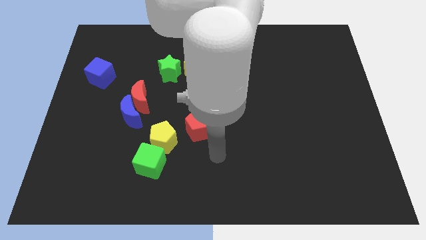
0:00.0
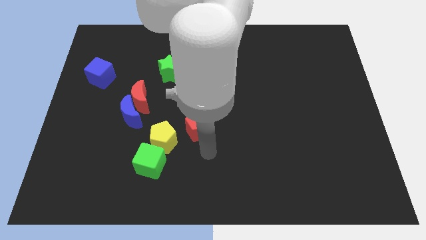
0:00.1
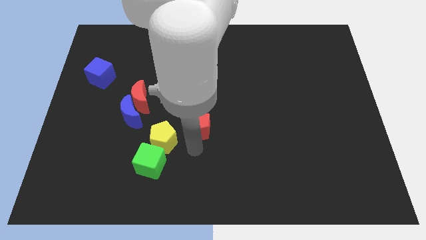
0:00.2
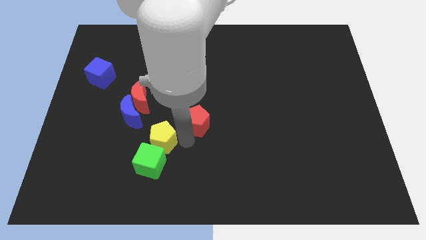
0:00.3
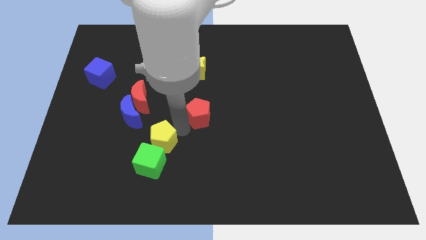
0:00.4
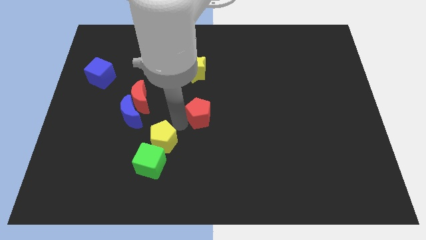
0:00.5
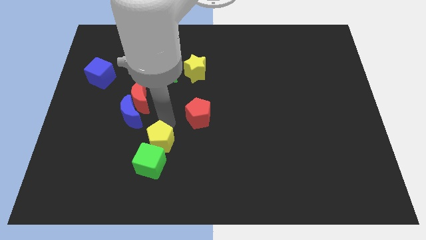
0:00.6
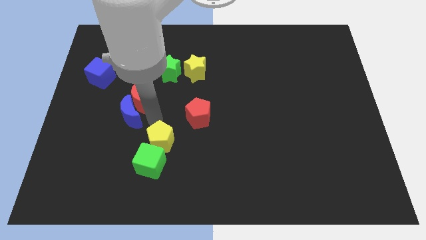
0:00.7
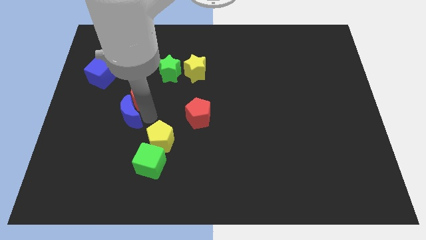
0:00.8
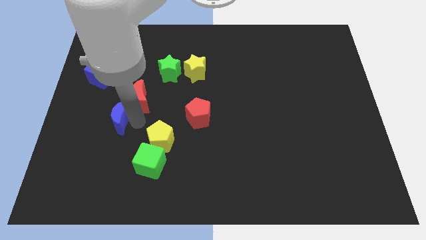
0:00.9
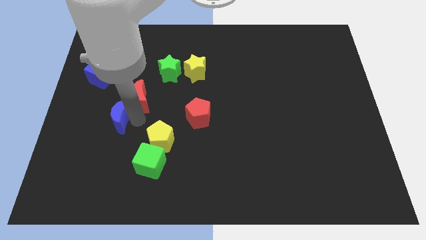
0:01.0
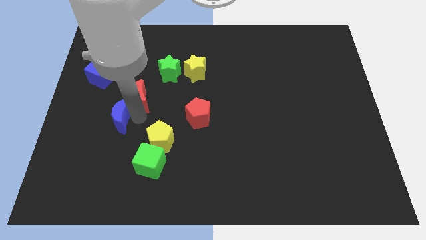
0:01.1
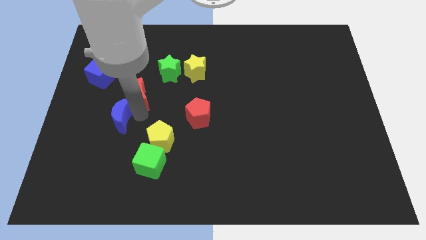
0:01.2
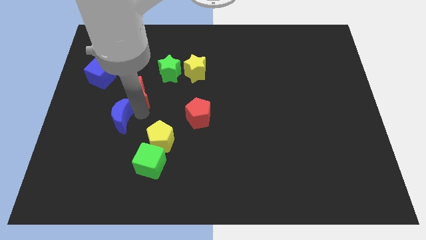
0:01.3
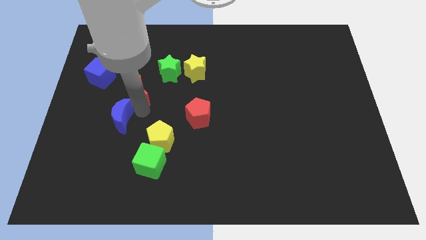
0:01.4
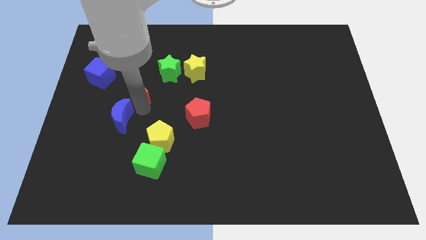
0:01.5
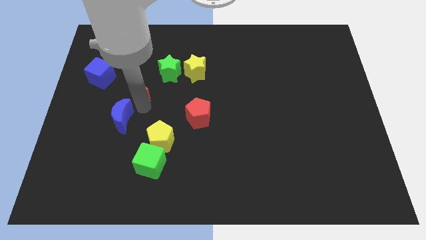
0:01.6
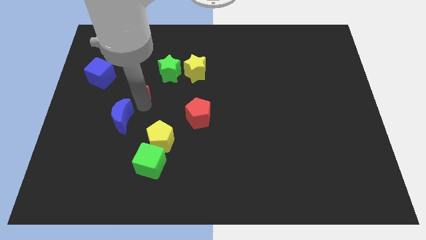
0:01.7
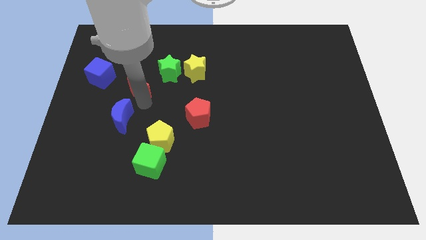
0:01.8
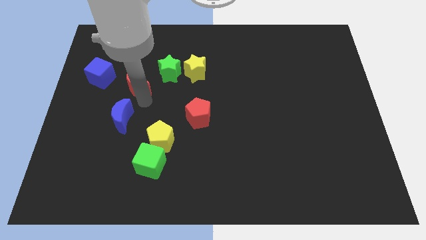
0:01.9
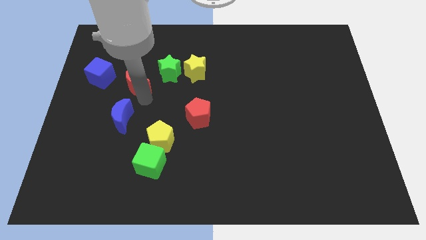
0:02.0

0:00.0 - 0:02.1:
move the red moon away from the blue moon

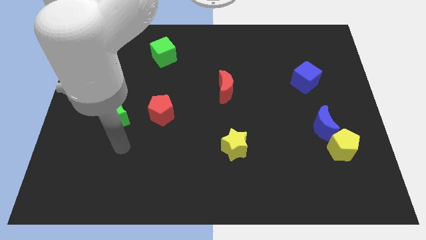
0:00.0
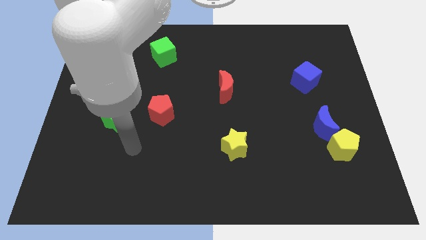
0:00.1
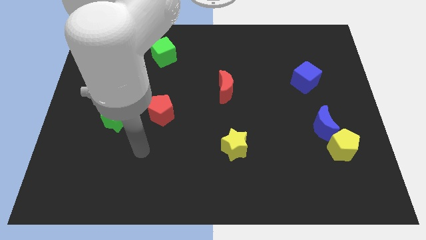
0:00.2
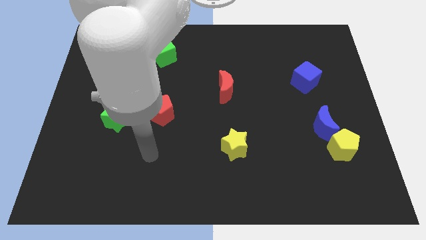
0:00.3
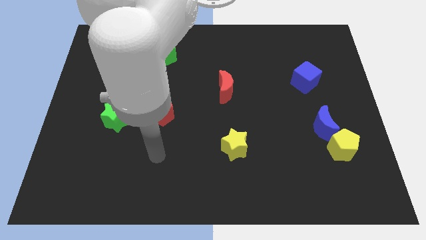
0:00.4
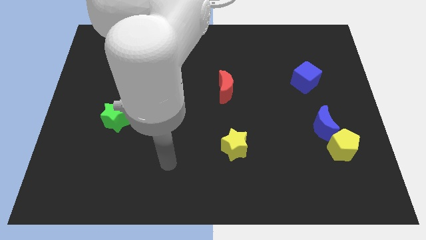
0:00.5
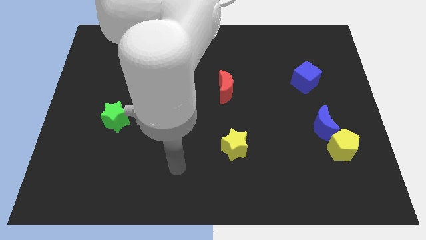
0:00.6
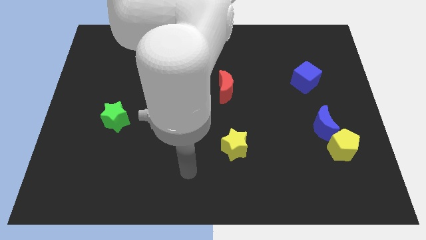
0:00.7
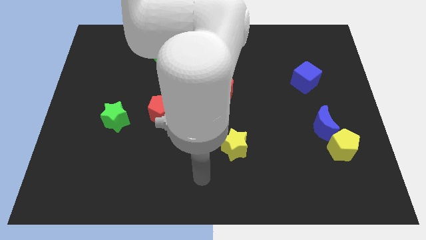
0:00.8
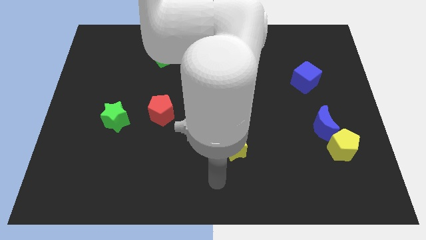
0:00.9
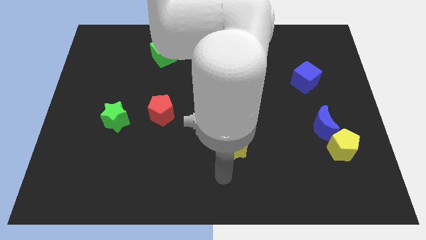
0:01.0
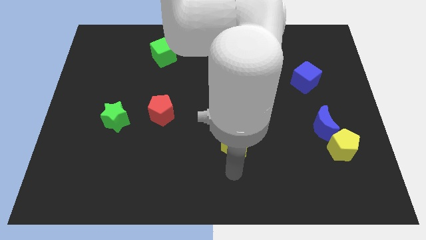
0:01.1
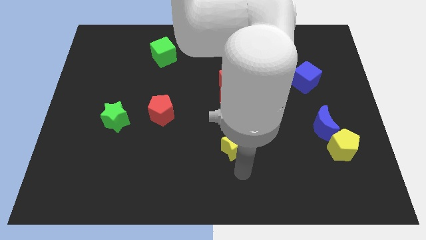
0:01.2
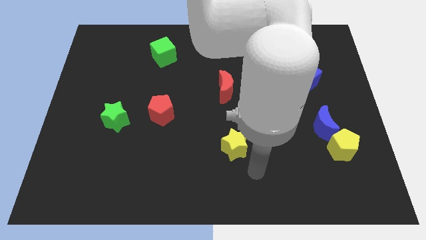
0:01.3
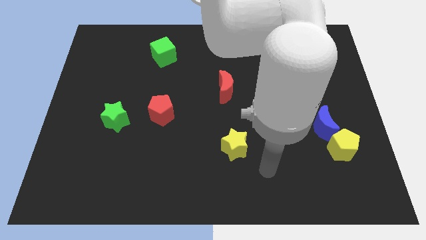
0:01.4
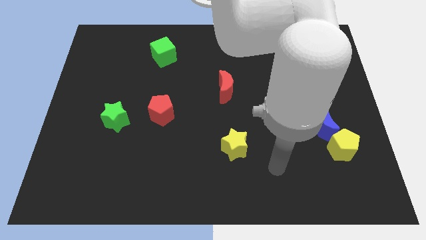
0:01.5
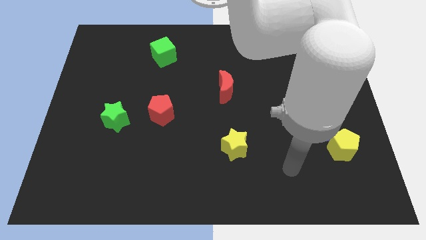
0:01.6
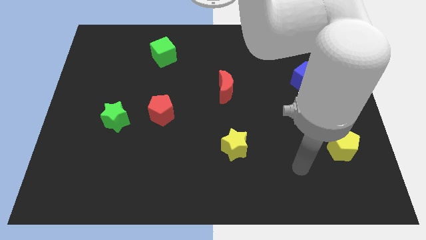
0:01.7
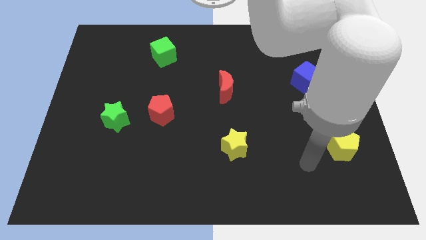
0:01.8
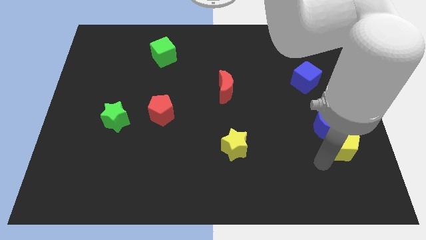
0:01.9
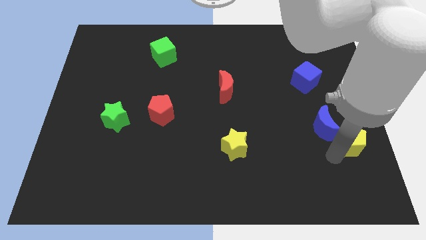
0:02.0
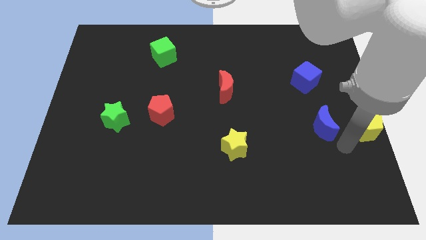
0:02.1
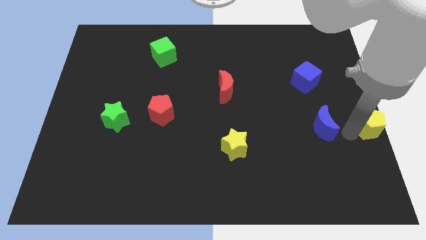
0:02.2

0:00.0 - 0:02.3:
separate the blue moon from the yellow pentagon

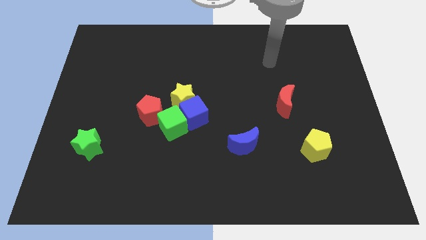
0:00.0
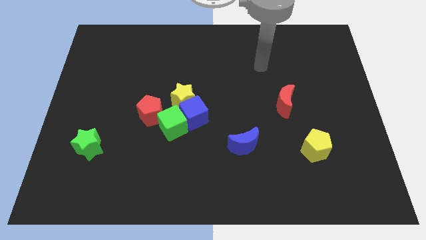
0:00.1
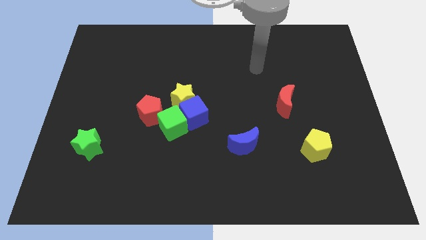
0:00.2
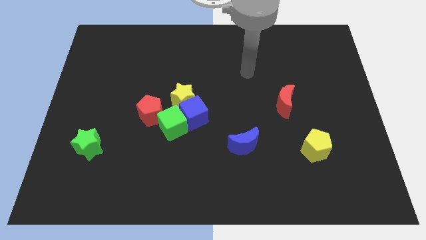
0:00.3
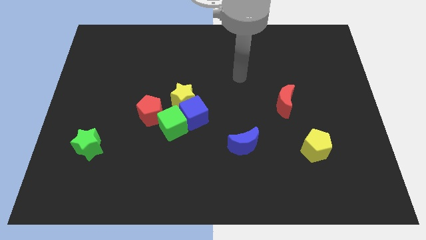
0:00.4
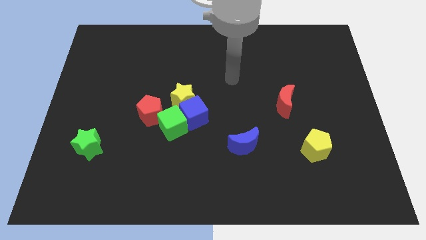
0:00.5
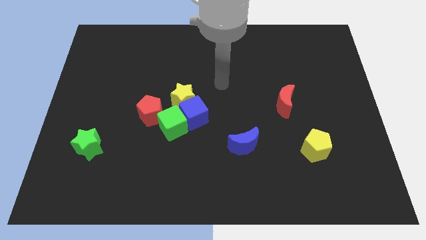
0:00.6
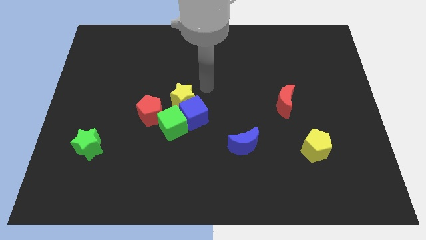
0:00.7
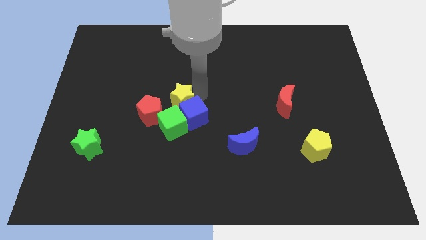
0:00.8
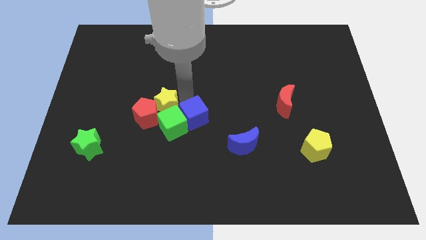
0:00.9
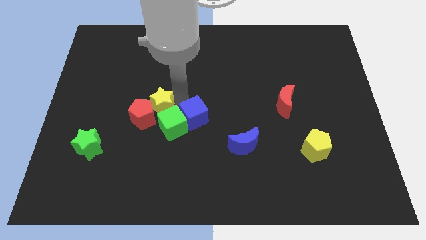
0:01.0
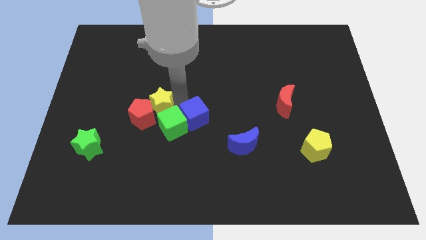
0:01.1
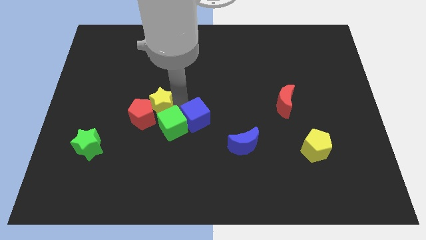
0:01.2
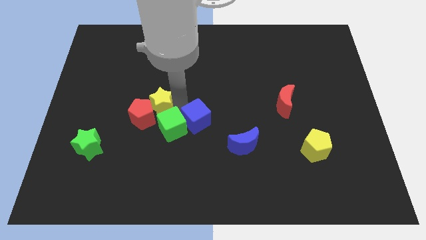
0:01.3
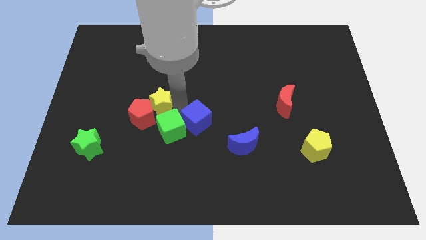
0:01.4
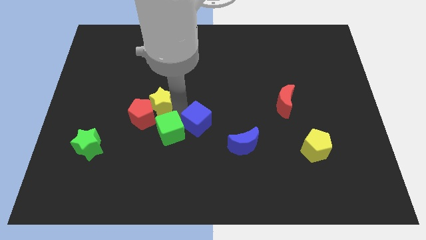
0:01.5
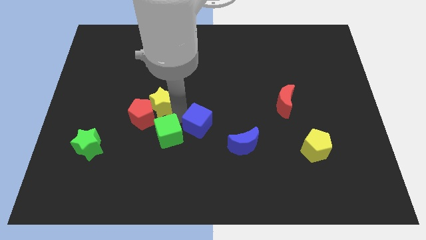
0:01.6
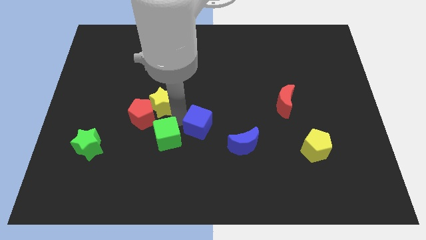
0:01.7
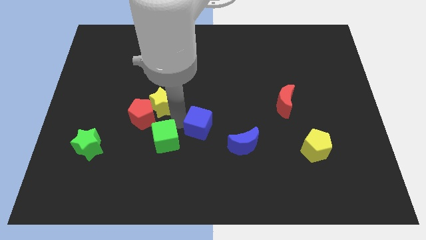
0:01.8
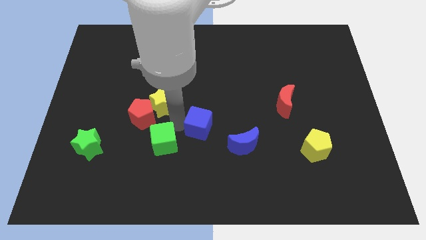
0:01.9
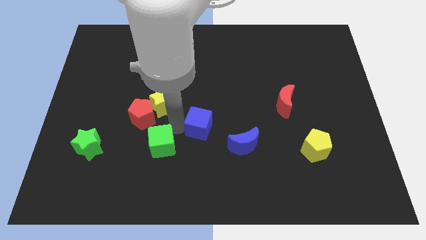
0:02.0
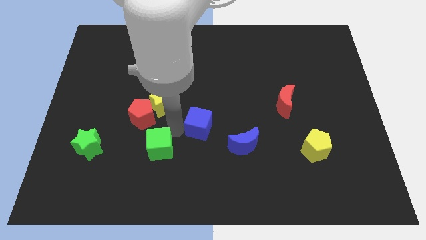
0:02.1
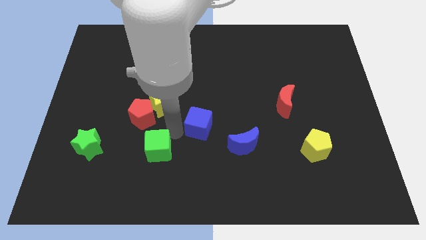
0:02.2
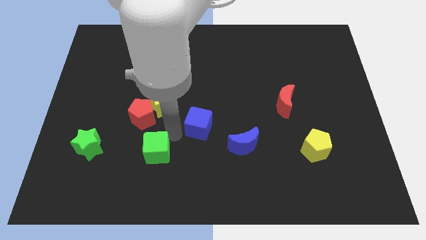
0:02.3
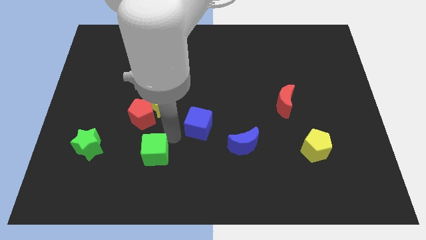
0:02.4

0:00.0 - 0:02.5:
separate the green cube from the blue cube, red pentagon, and yellow star

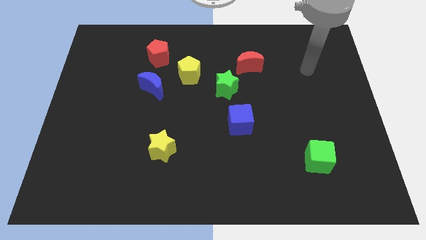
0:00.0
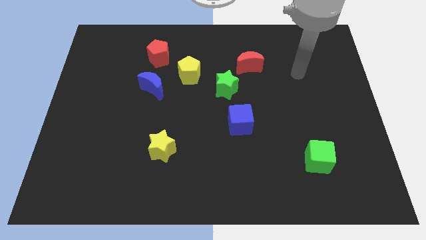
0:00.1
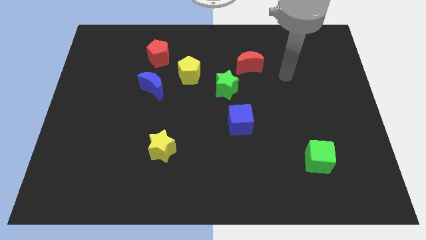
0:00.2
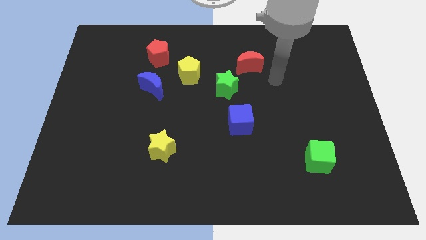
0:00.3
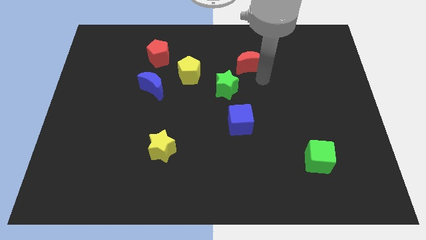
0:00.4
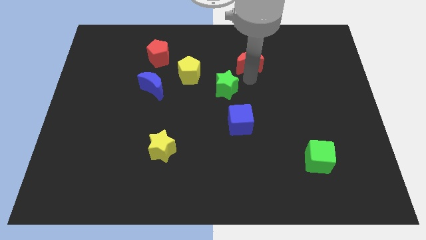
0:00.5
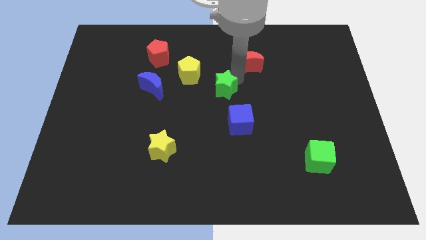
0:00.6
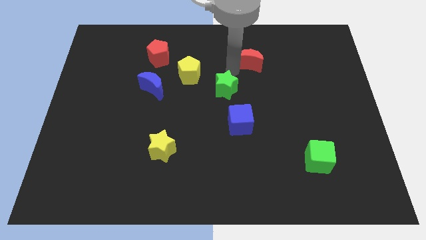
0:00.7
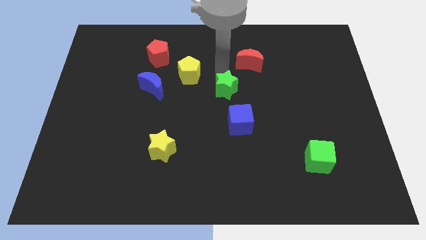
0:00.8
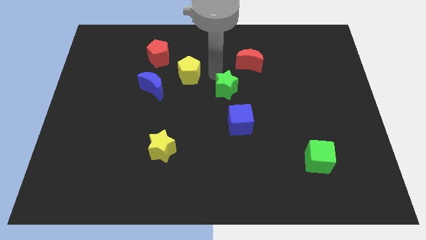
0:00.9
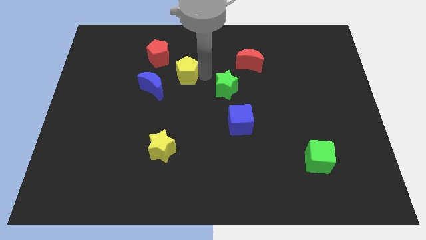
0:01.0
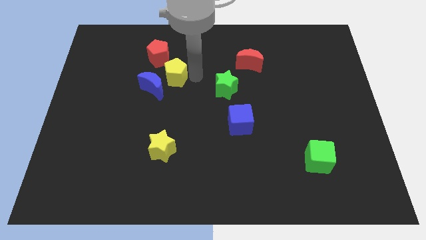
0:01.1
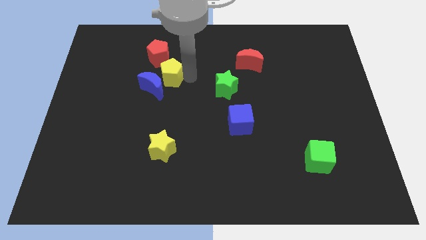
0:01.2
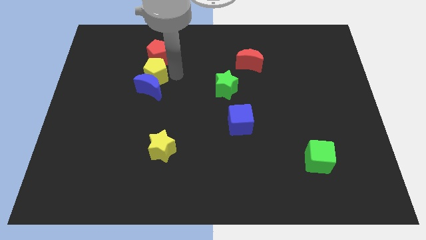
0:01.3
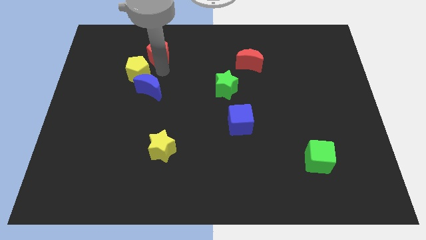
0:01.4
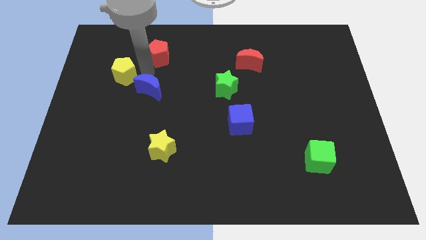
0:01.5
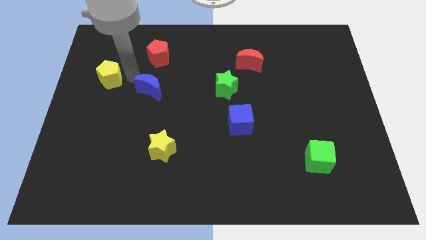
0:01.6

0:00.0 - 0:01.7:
move the blue moon away from the yellow pentagon

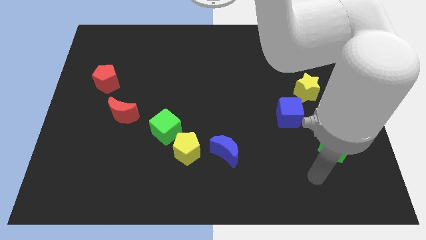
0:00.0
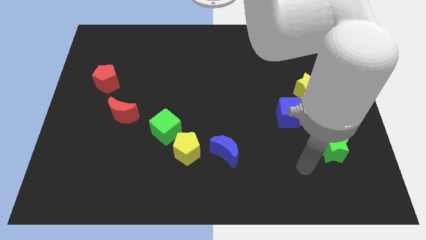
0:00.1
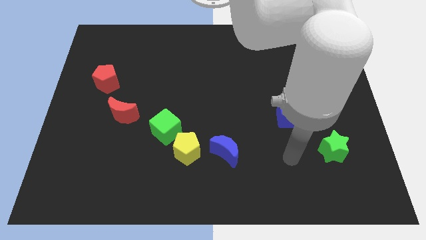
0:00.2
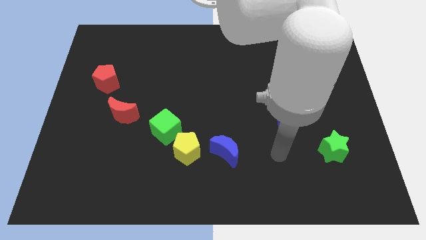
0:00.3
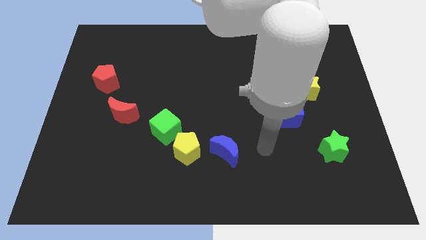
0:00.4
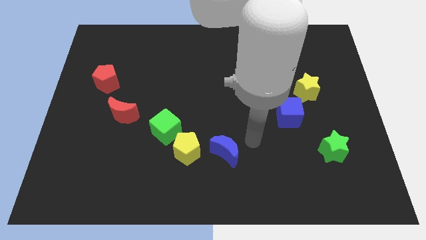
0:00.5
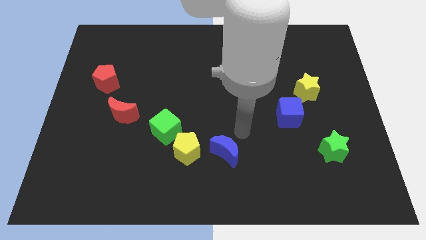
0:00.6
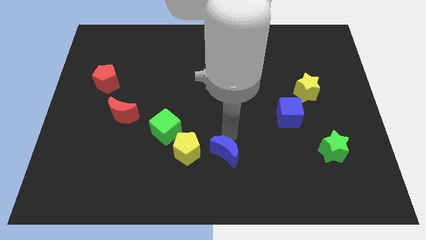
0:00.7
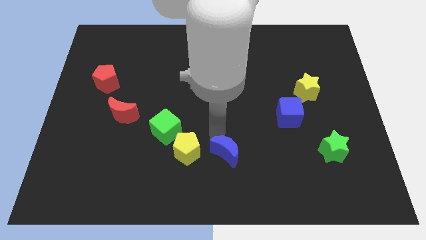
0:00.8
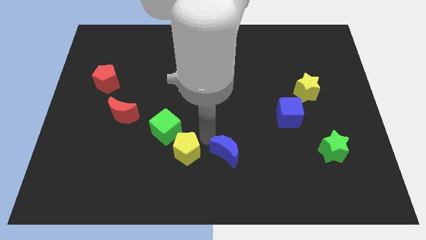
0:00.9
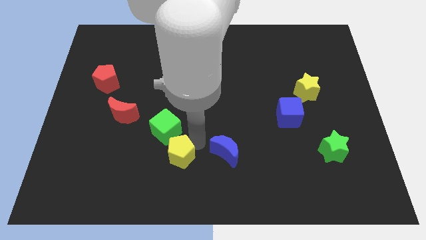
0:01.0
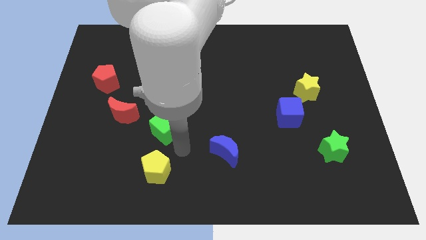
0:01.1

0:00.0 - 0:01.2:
pull the green cube apart from the yellow pentagon
